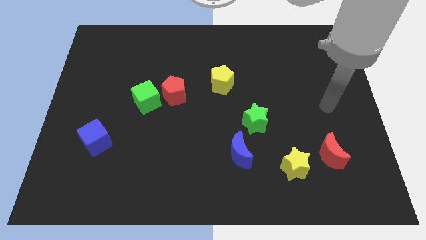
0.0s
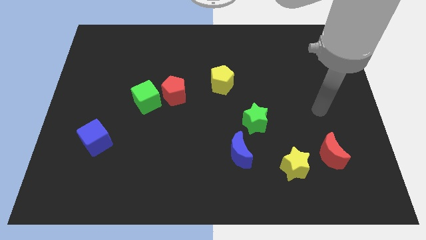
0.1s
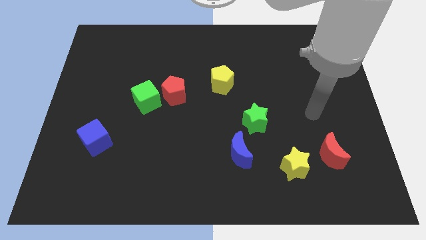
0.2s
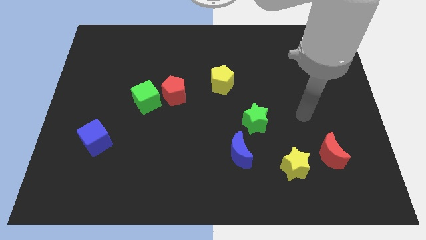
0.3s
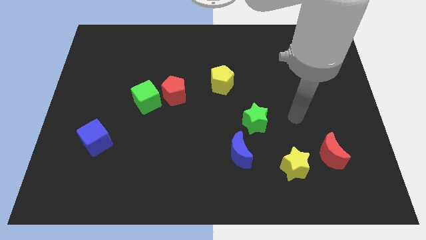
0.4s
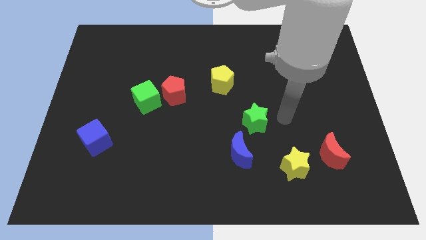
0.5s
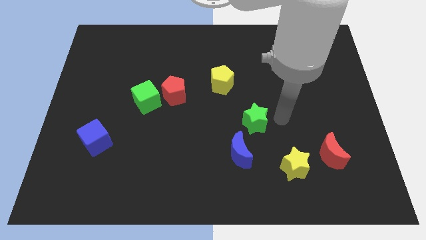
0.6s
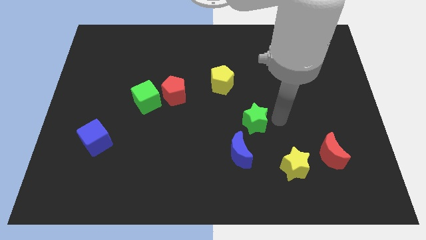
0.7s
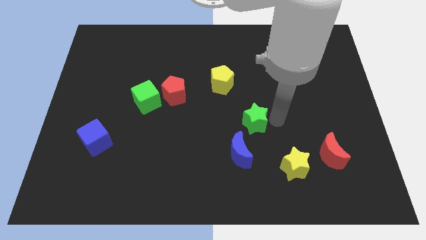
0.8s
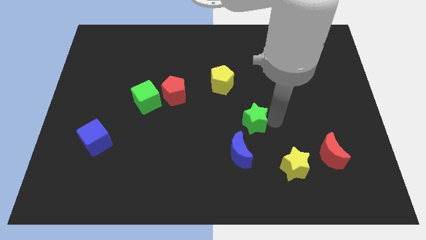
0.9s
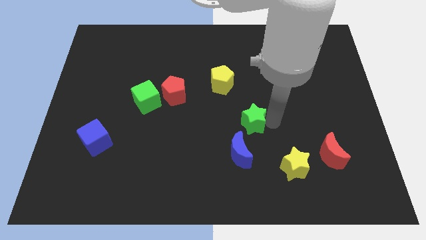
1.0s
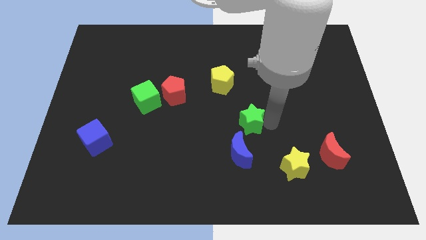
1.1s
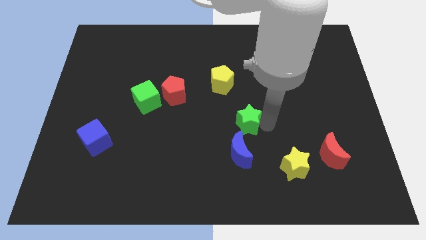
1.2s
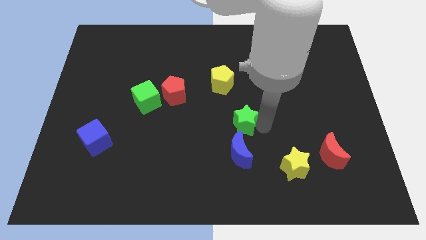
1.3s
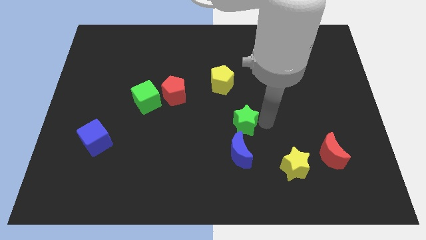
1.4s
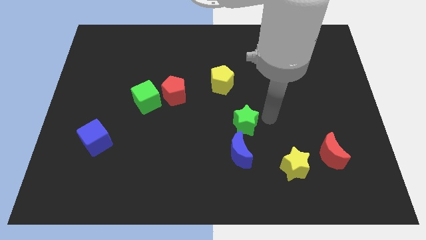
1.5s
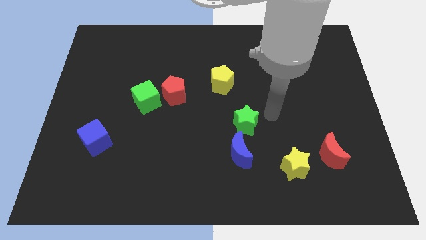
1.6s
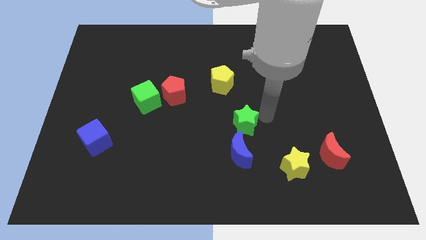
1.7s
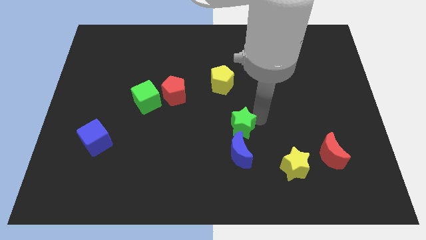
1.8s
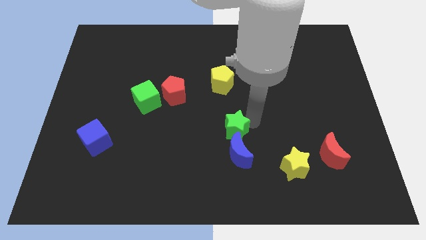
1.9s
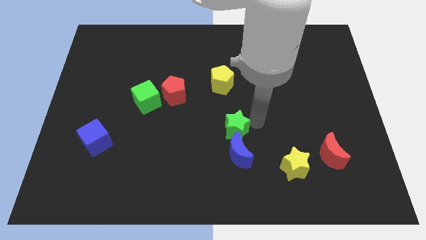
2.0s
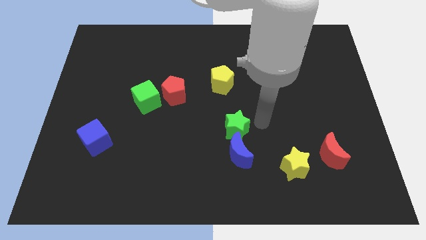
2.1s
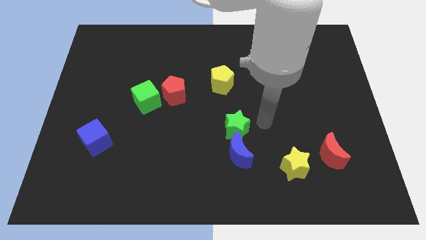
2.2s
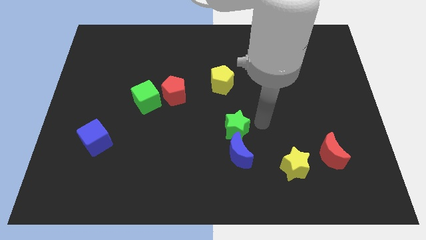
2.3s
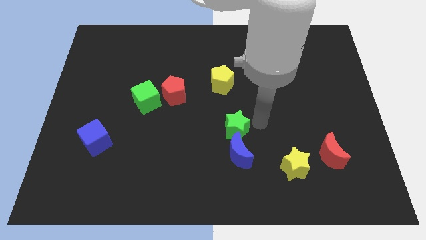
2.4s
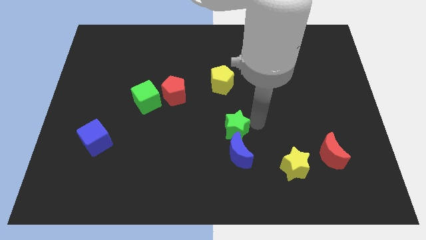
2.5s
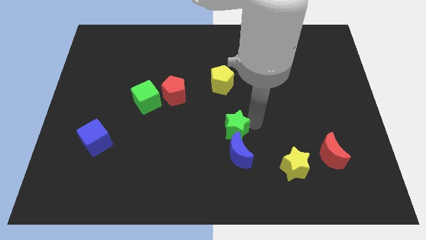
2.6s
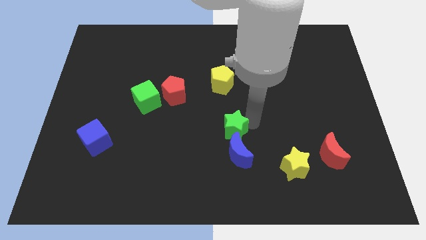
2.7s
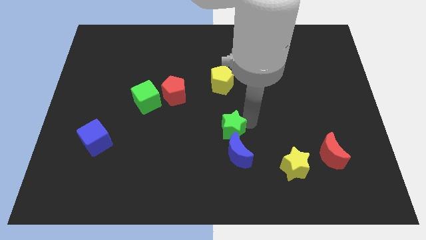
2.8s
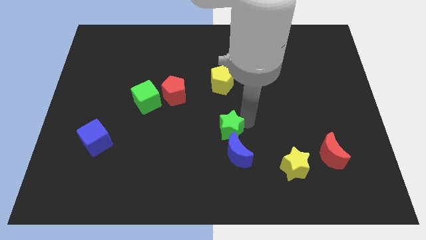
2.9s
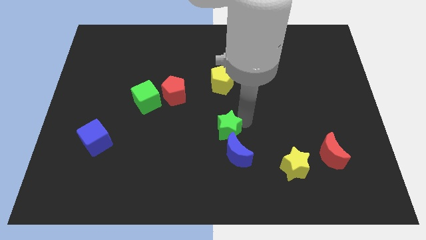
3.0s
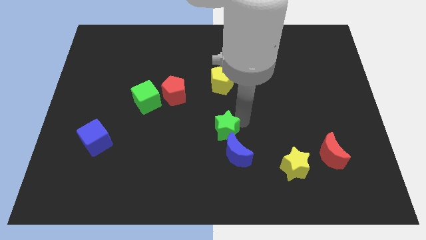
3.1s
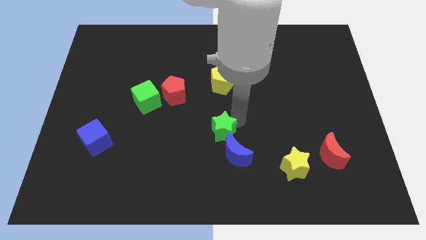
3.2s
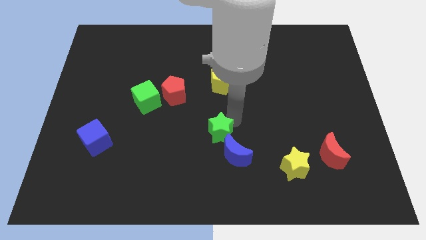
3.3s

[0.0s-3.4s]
slightly slide the green star down and to the left

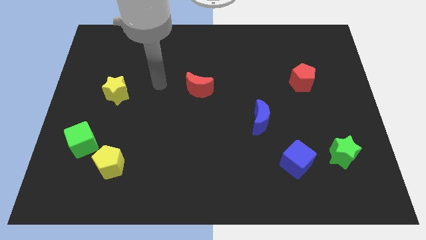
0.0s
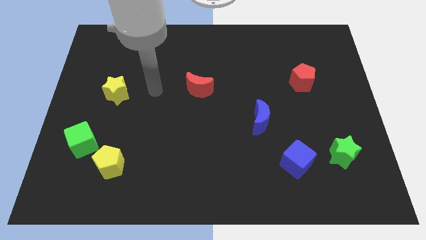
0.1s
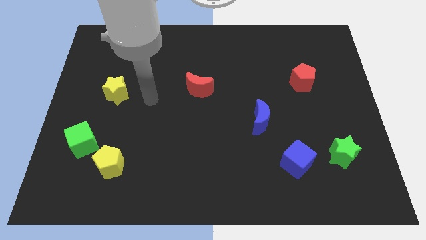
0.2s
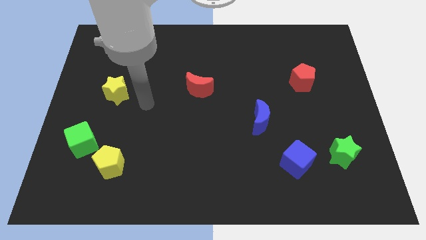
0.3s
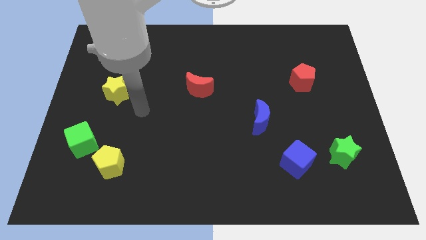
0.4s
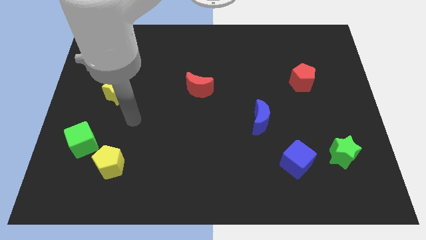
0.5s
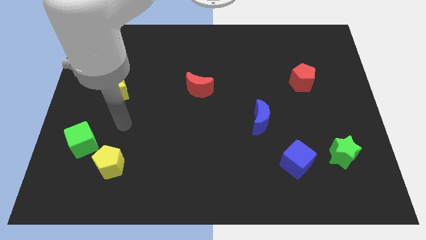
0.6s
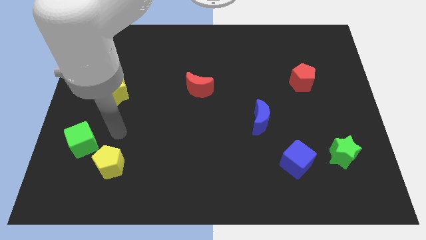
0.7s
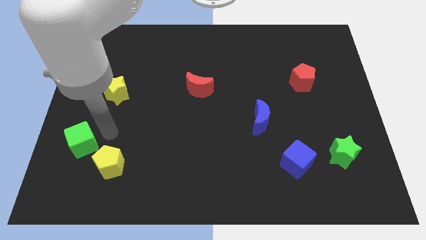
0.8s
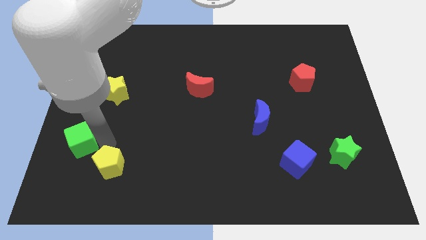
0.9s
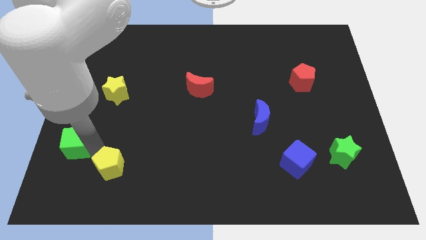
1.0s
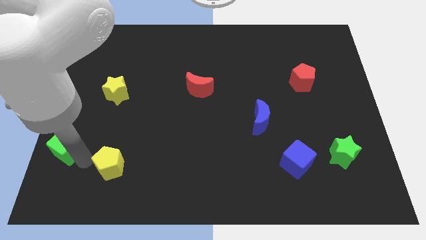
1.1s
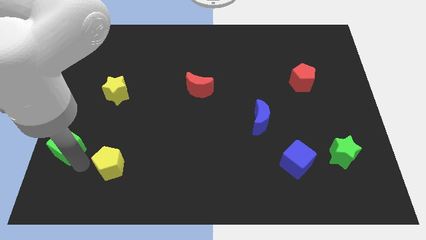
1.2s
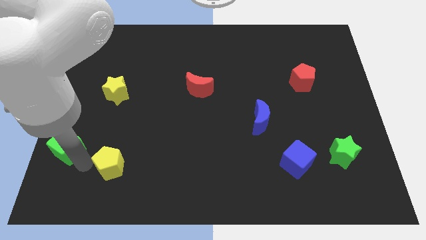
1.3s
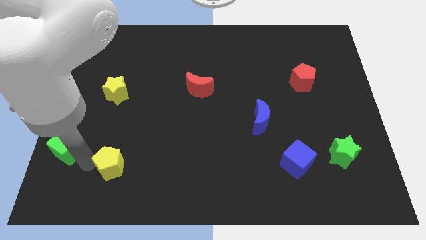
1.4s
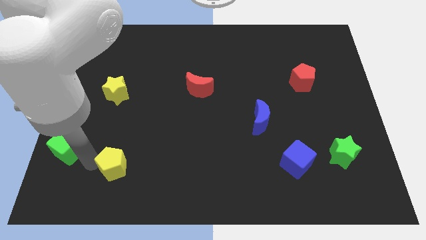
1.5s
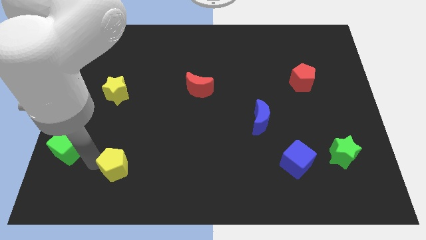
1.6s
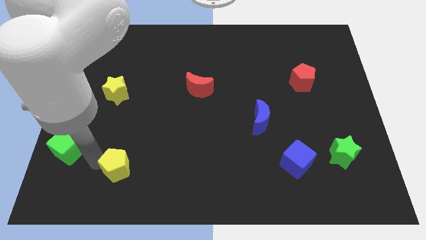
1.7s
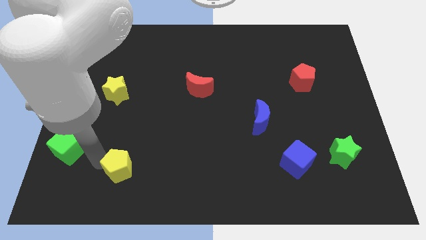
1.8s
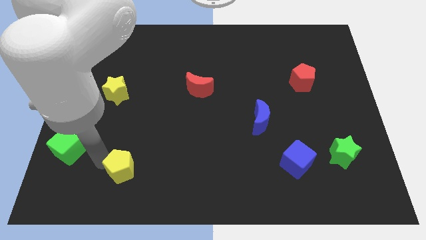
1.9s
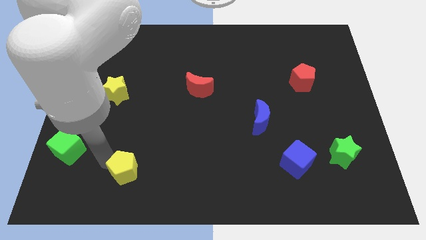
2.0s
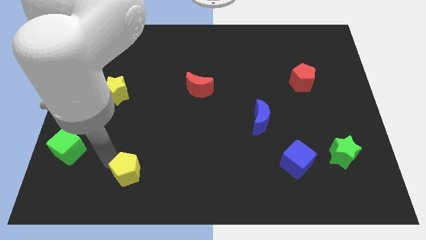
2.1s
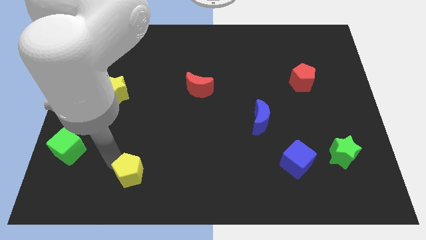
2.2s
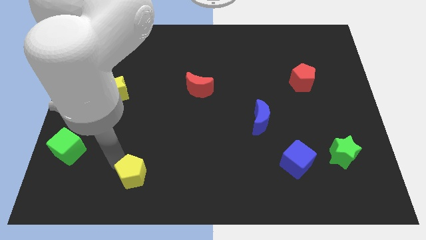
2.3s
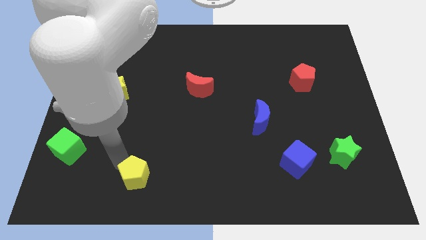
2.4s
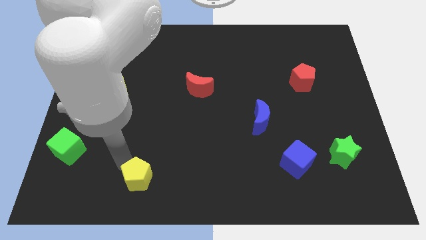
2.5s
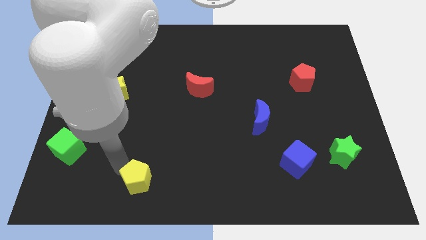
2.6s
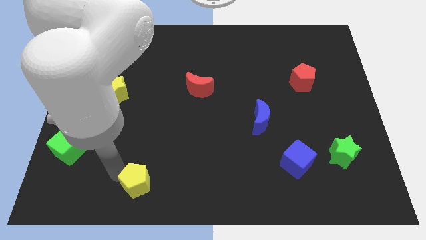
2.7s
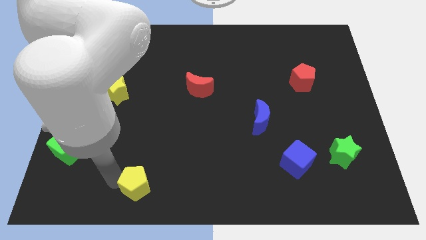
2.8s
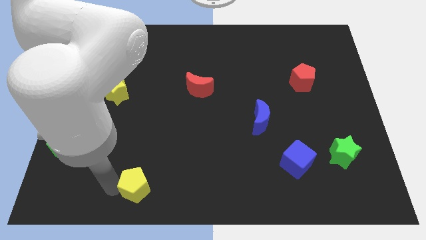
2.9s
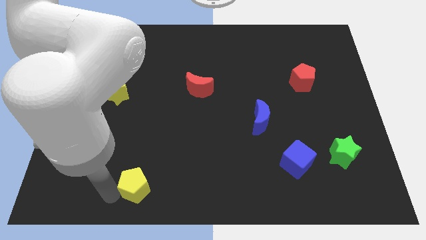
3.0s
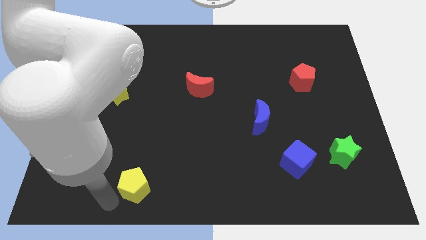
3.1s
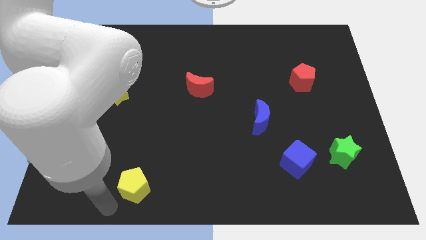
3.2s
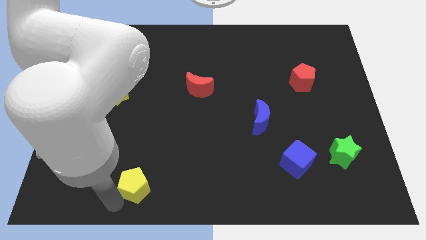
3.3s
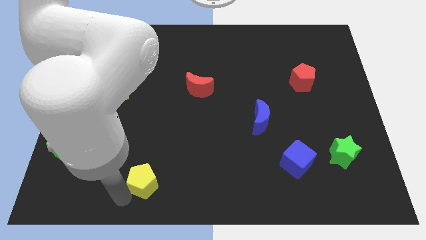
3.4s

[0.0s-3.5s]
slightly slide the yellow pentagon to the right

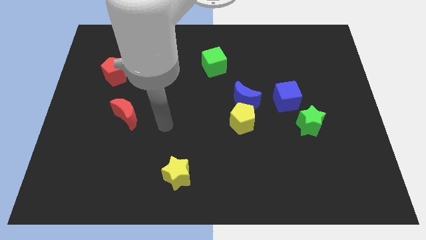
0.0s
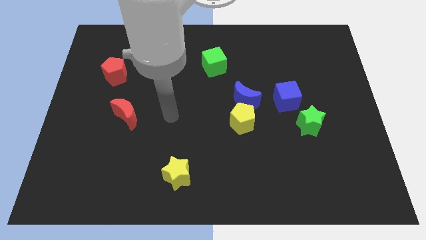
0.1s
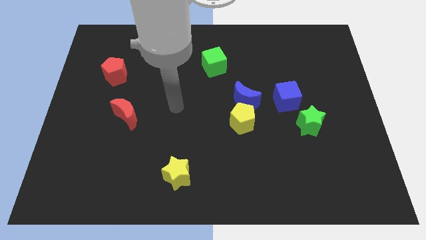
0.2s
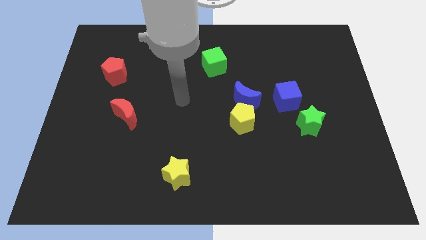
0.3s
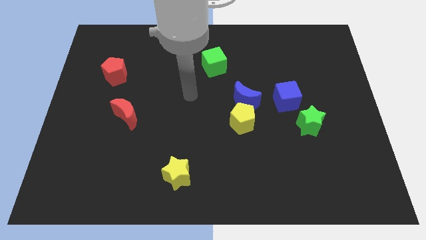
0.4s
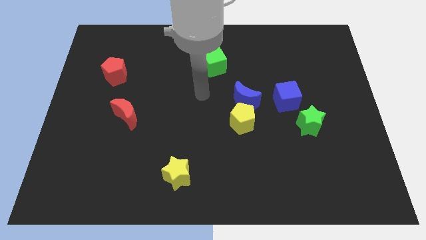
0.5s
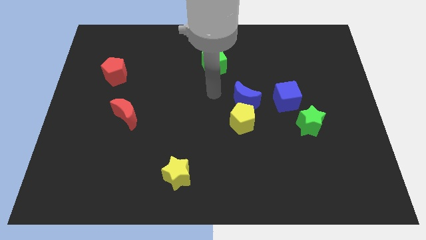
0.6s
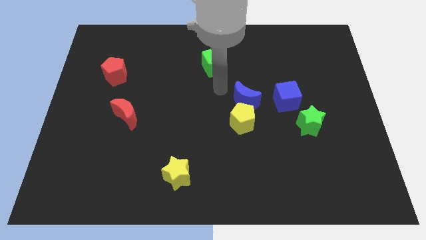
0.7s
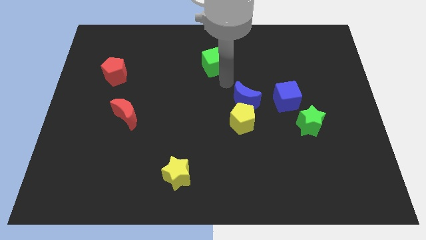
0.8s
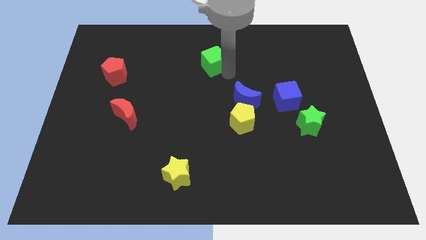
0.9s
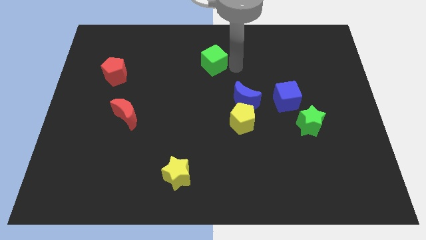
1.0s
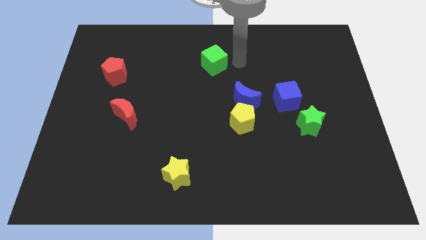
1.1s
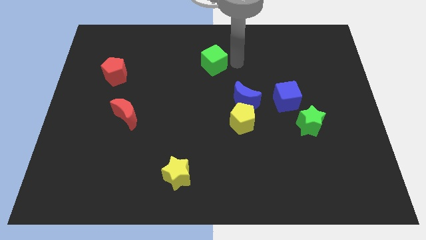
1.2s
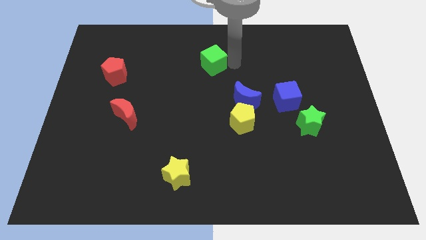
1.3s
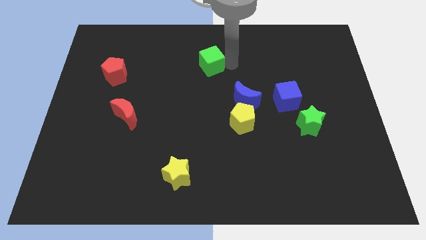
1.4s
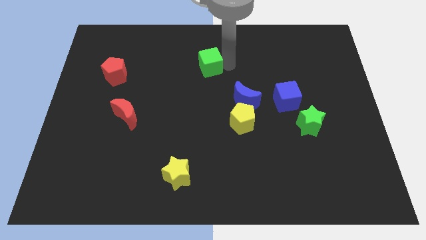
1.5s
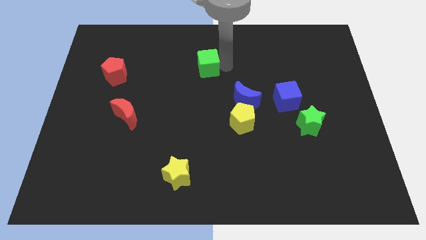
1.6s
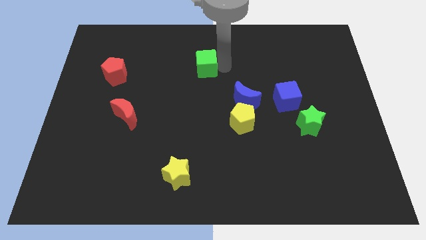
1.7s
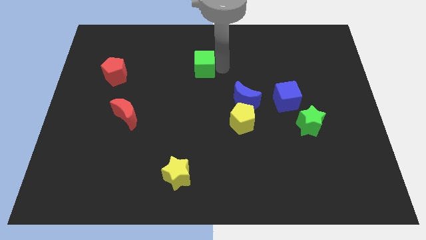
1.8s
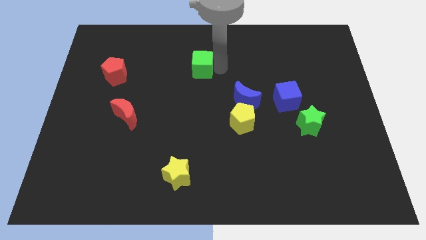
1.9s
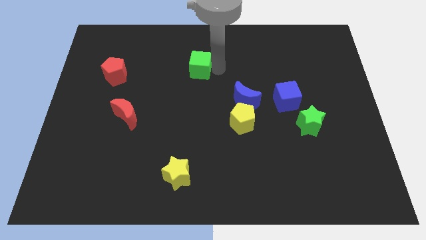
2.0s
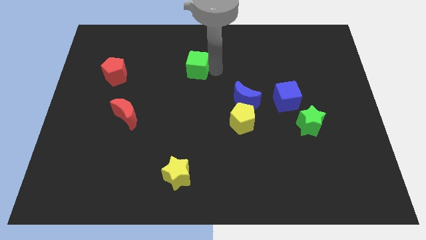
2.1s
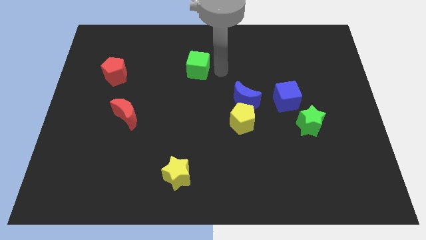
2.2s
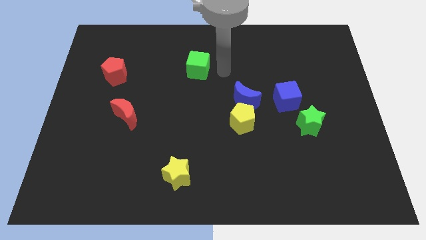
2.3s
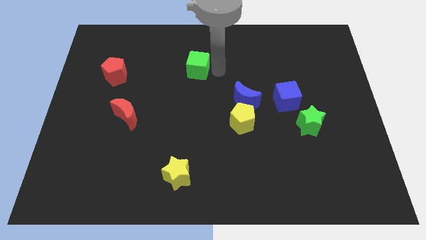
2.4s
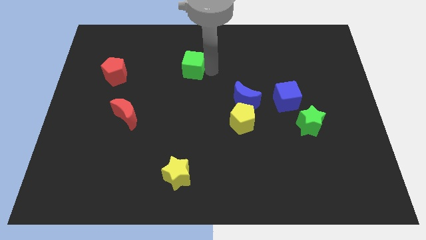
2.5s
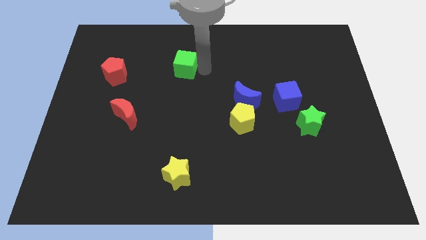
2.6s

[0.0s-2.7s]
move the green cube to the left a bit
